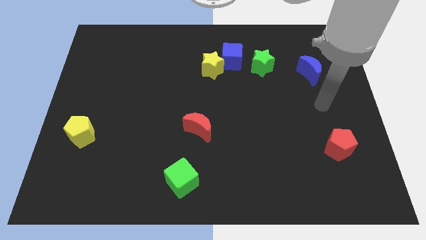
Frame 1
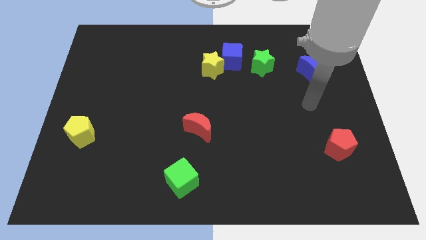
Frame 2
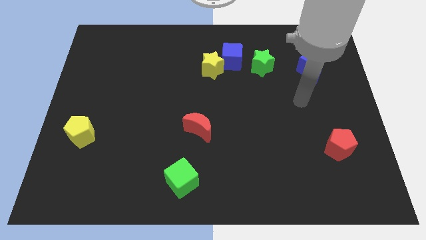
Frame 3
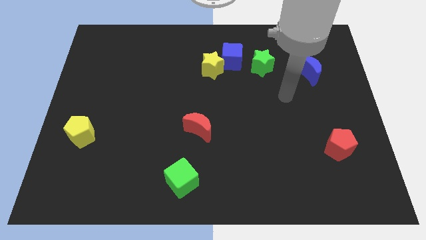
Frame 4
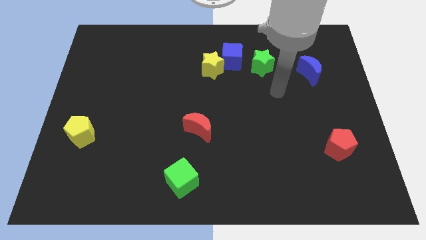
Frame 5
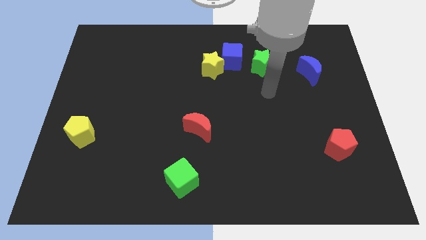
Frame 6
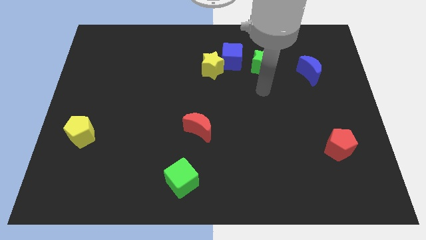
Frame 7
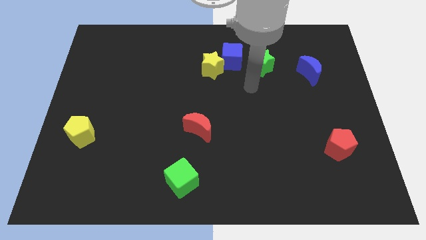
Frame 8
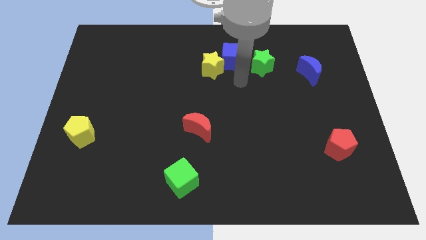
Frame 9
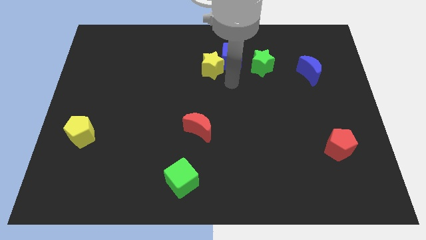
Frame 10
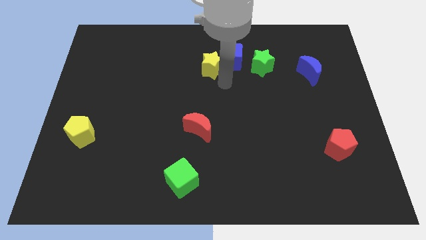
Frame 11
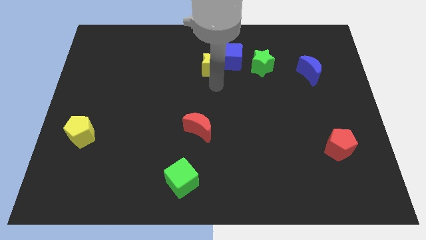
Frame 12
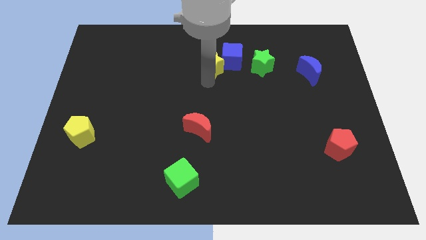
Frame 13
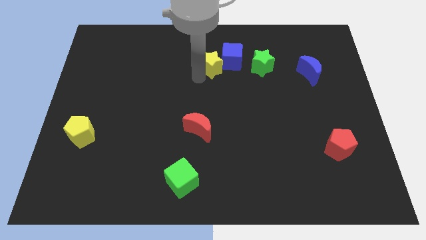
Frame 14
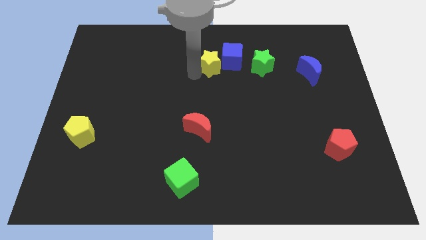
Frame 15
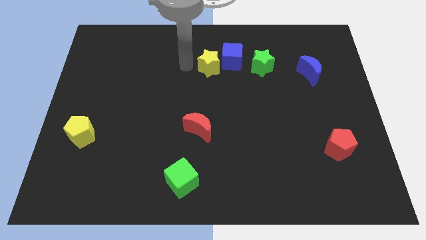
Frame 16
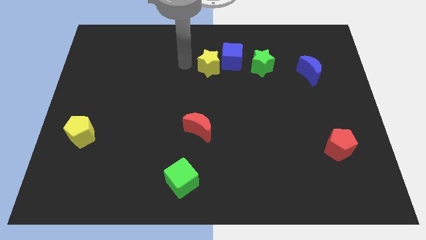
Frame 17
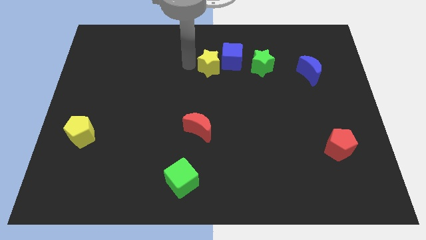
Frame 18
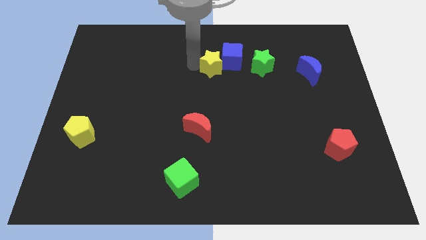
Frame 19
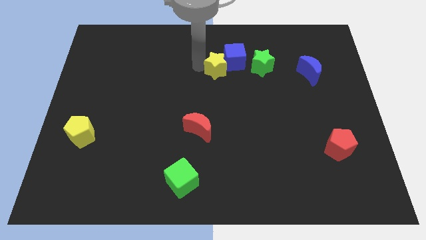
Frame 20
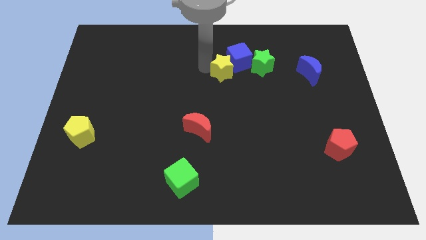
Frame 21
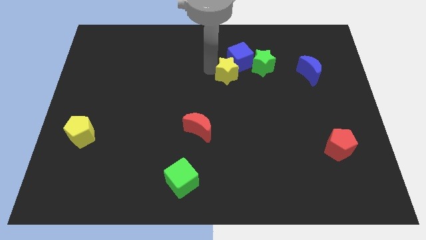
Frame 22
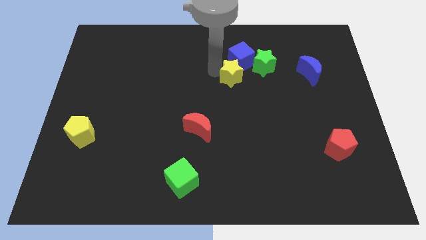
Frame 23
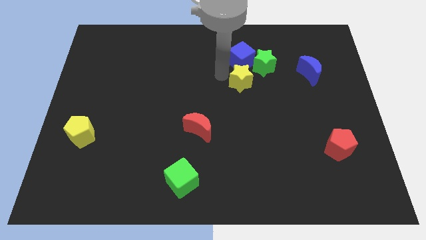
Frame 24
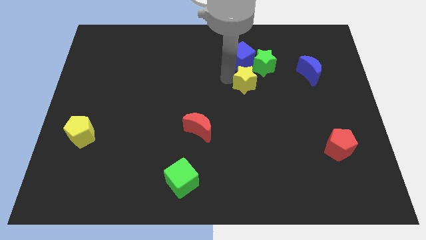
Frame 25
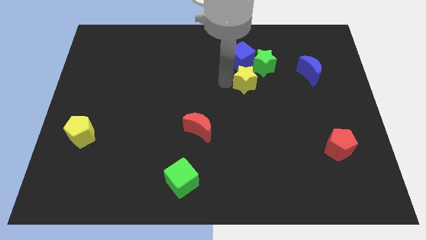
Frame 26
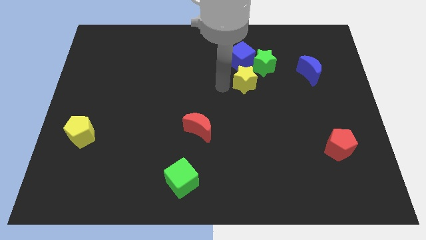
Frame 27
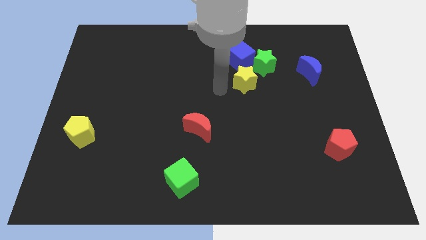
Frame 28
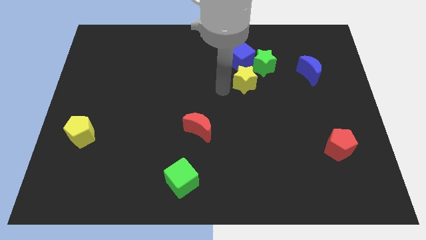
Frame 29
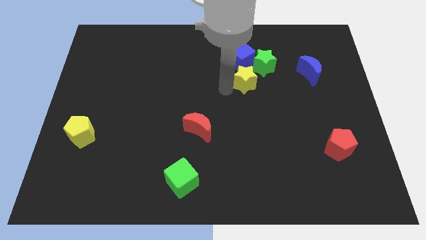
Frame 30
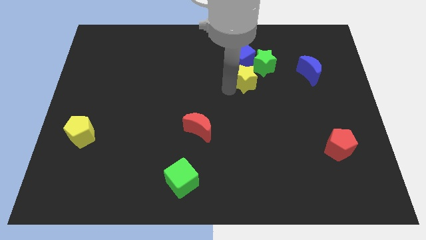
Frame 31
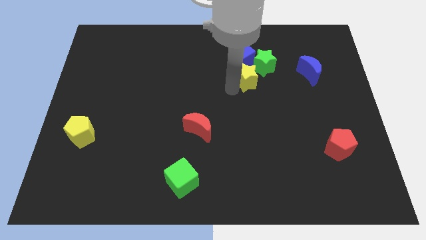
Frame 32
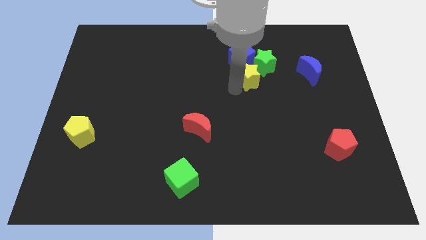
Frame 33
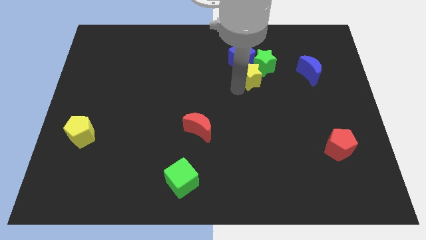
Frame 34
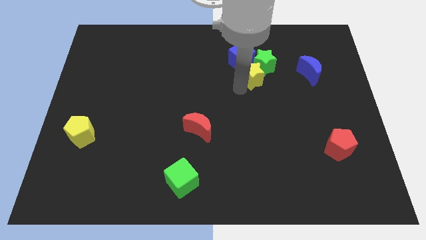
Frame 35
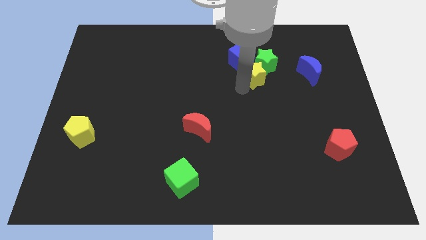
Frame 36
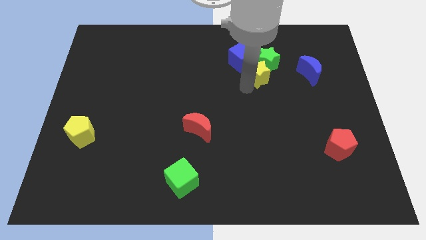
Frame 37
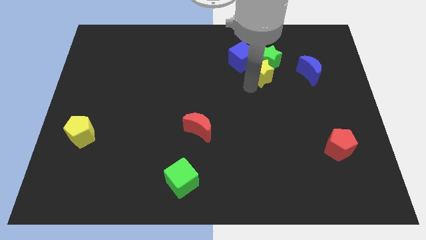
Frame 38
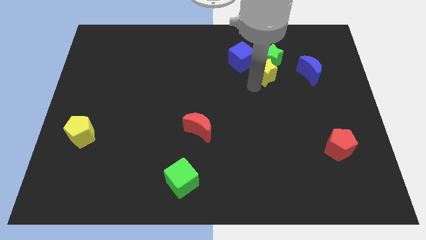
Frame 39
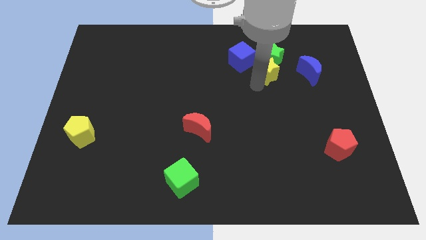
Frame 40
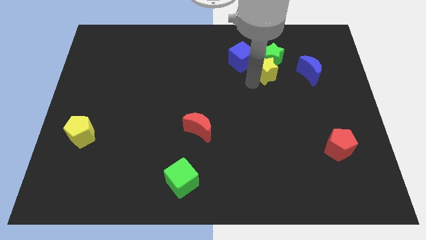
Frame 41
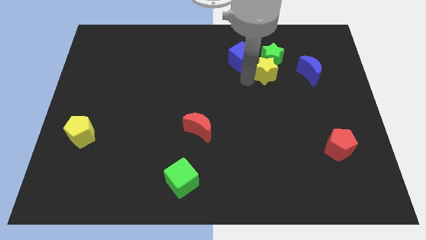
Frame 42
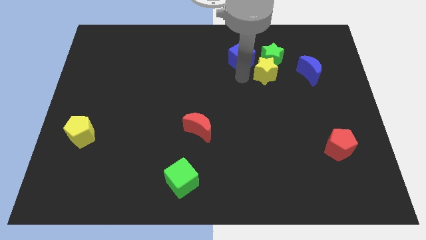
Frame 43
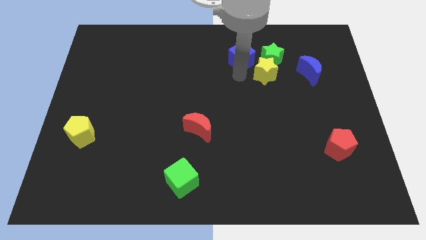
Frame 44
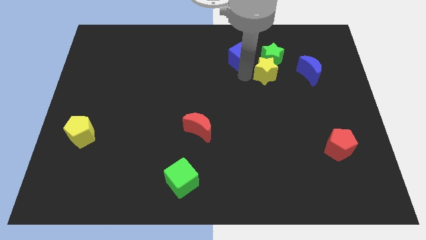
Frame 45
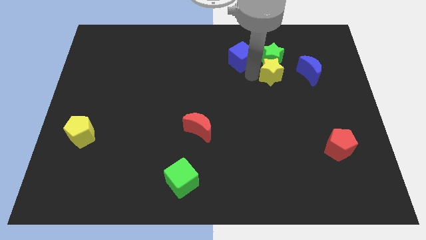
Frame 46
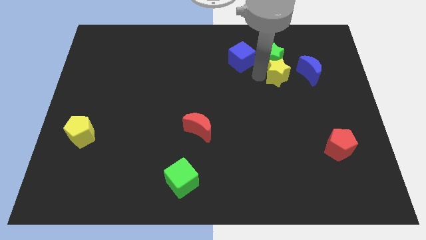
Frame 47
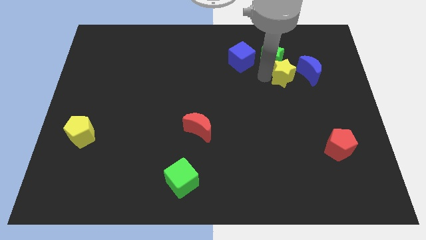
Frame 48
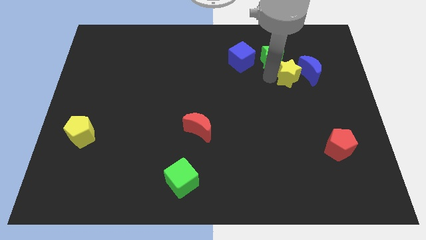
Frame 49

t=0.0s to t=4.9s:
slide the yellow star to the blue moon

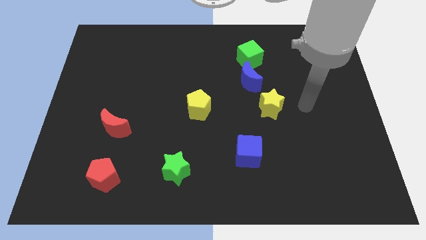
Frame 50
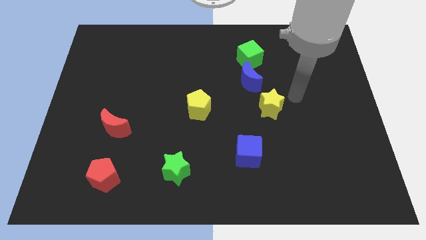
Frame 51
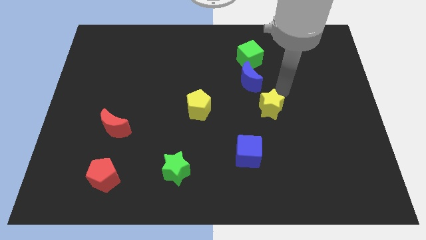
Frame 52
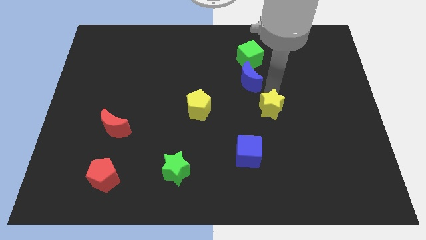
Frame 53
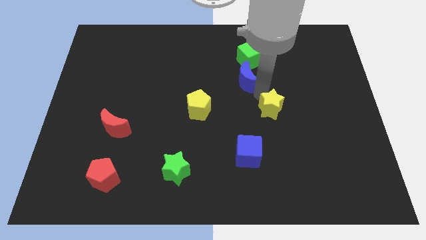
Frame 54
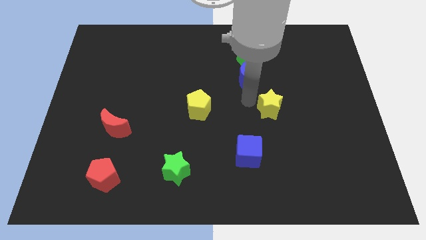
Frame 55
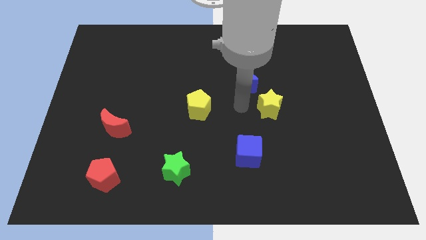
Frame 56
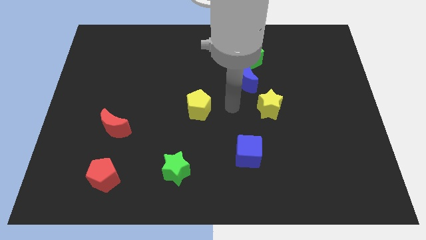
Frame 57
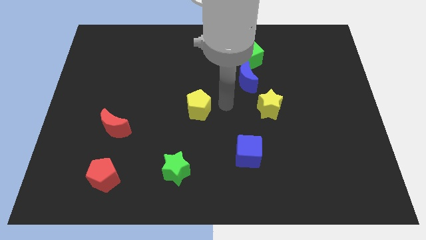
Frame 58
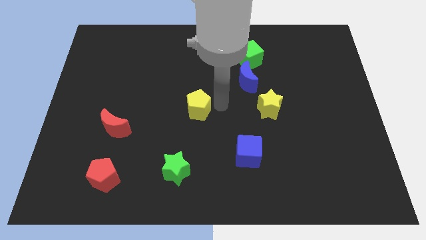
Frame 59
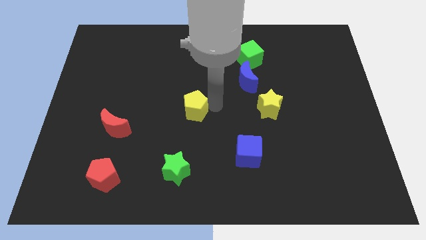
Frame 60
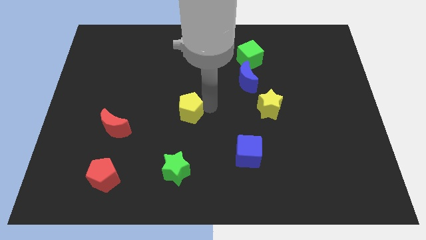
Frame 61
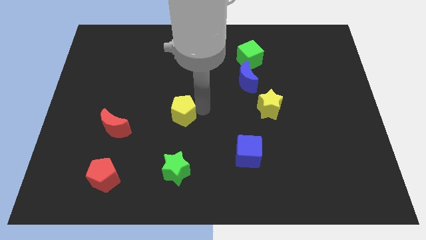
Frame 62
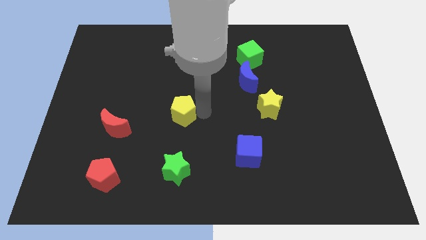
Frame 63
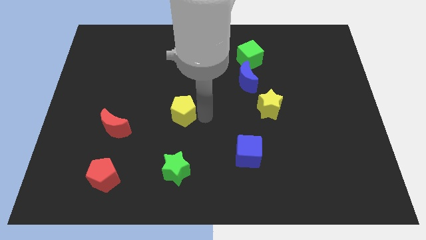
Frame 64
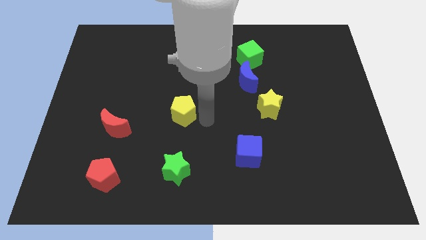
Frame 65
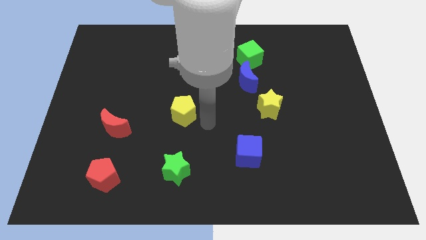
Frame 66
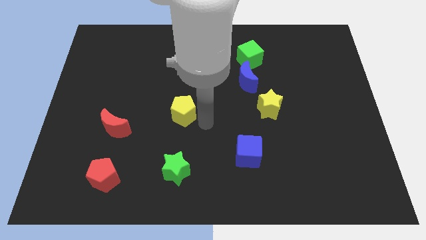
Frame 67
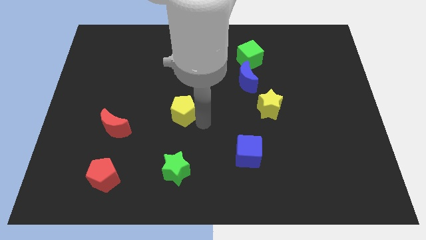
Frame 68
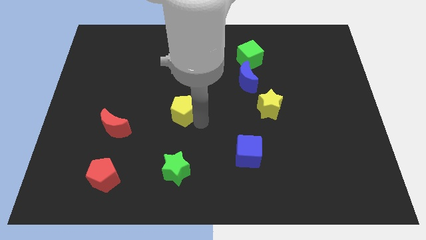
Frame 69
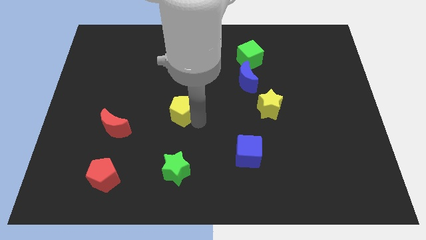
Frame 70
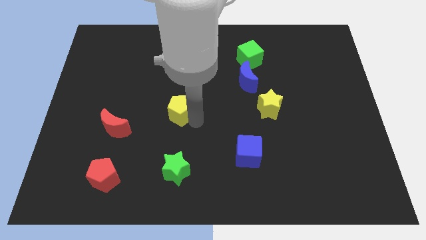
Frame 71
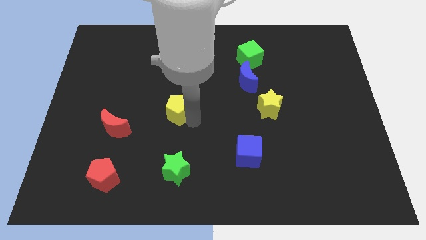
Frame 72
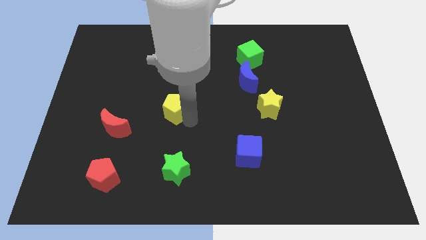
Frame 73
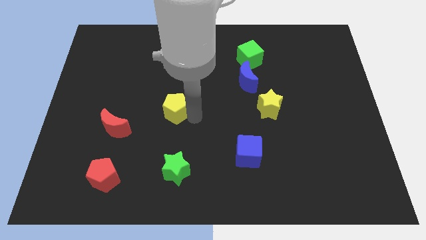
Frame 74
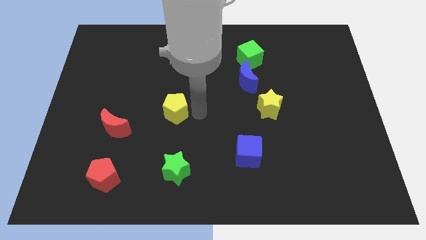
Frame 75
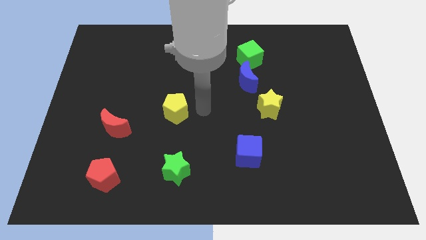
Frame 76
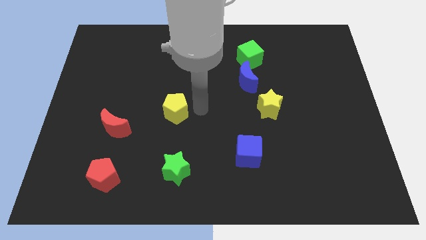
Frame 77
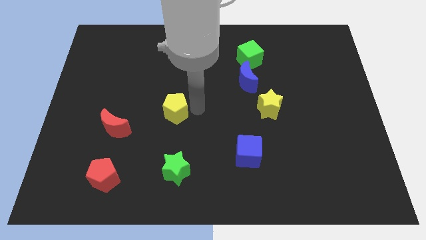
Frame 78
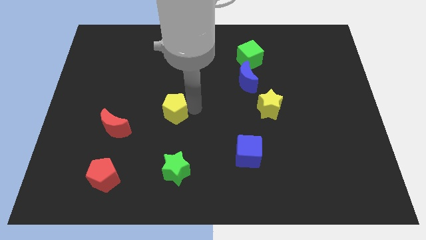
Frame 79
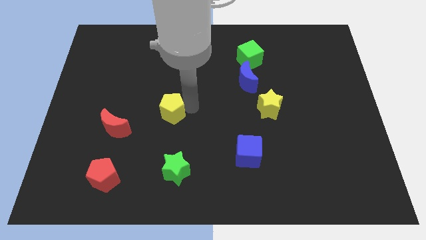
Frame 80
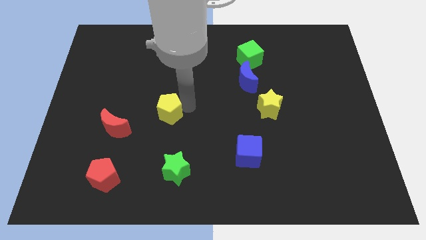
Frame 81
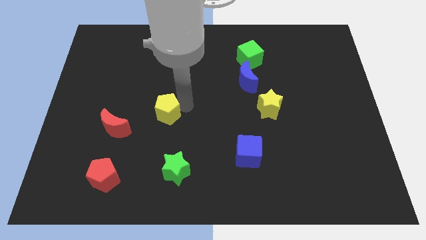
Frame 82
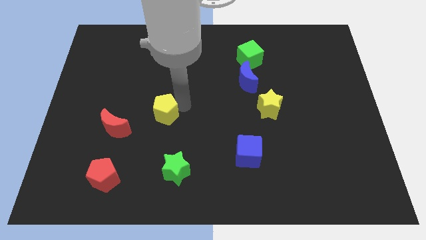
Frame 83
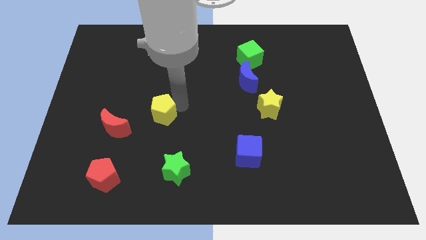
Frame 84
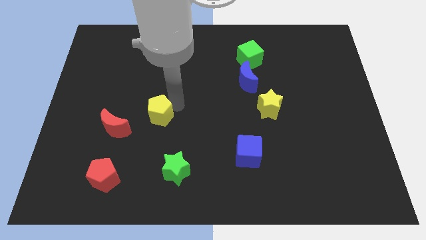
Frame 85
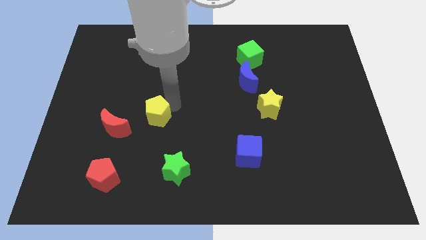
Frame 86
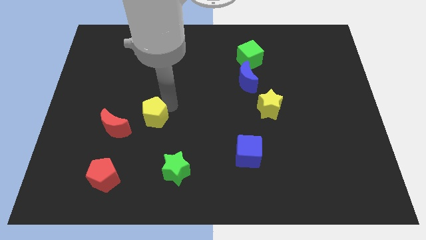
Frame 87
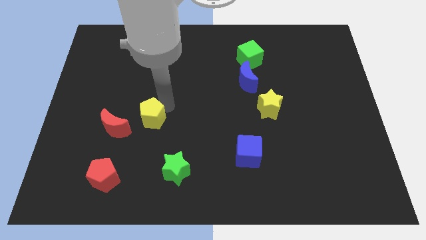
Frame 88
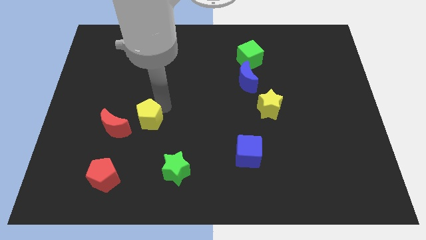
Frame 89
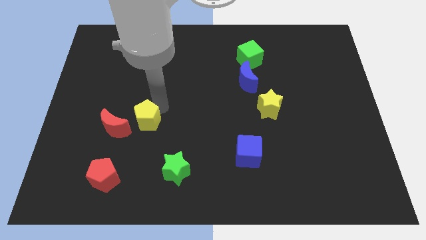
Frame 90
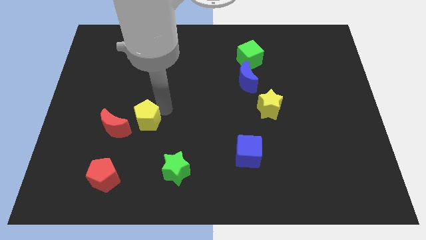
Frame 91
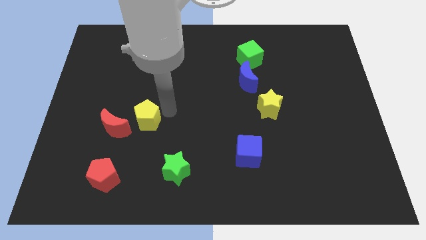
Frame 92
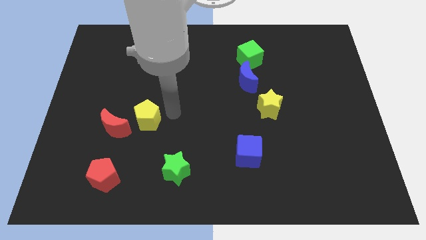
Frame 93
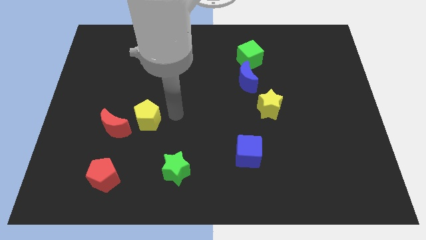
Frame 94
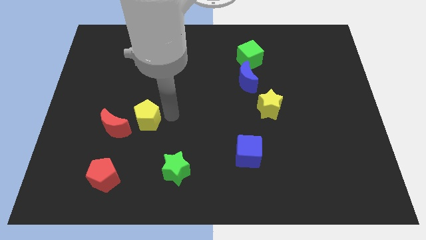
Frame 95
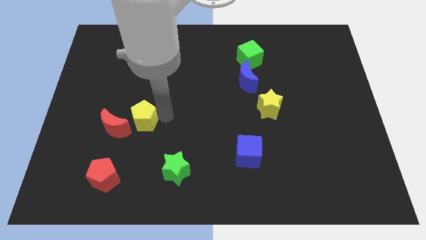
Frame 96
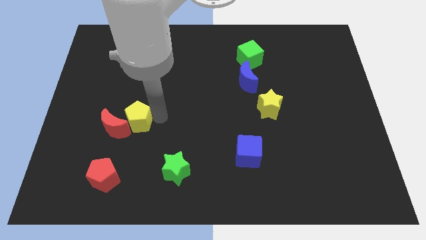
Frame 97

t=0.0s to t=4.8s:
put the yellow pentagon to the red moon
